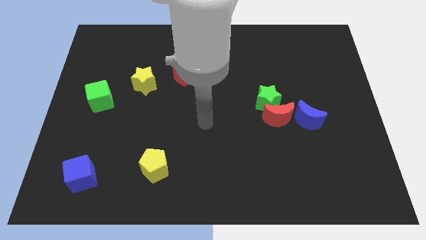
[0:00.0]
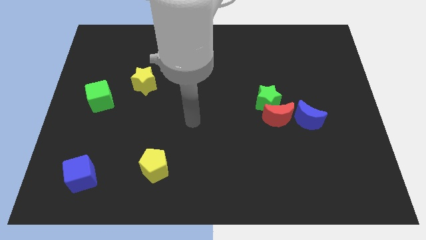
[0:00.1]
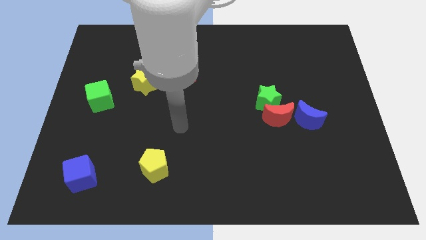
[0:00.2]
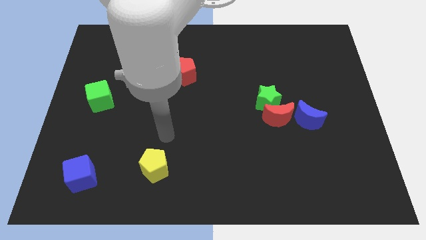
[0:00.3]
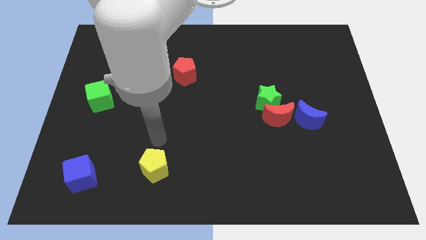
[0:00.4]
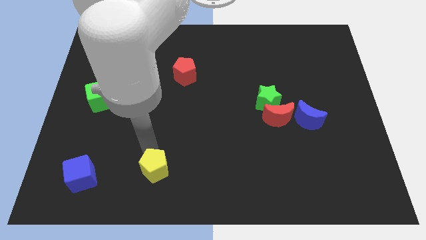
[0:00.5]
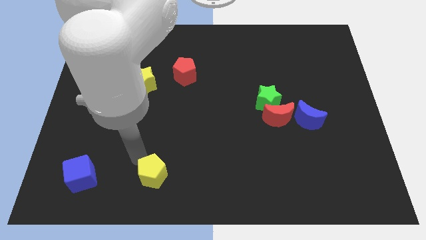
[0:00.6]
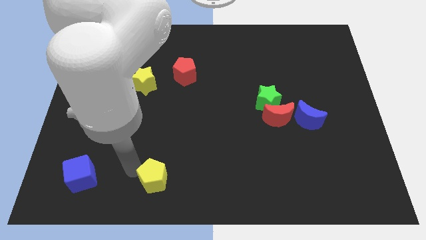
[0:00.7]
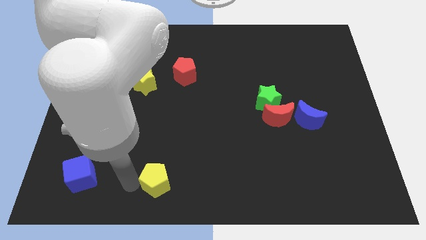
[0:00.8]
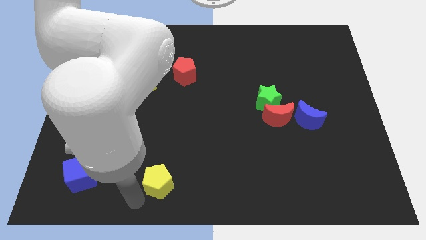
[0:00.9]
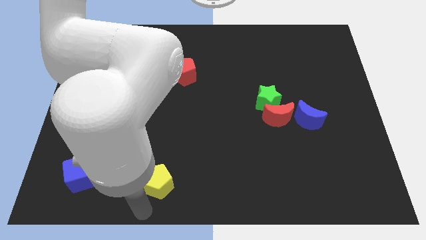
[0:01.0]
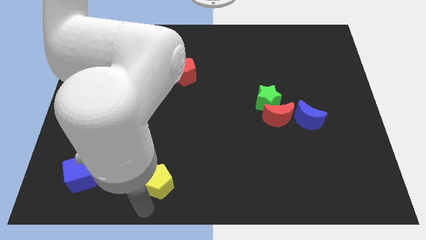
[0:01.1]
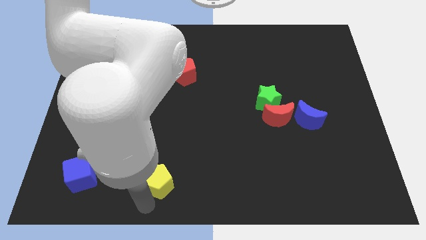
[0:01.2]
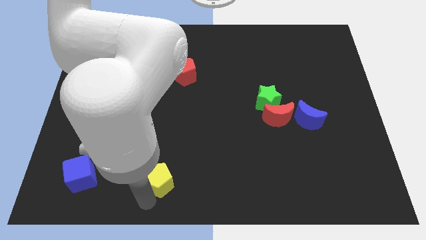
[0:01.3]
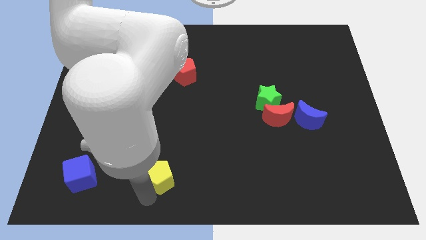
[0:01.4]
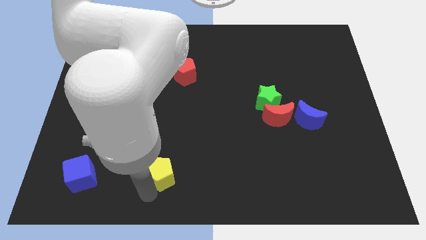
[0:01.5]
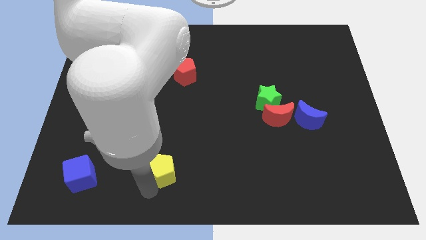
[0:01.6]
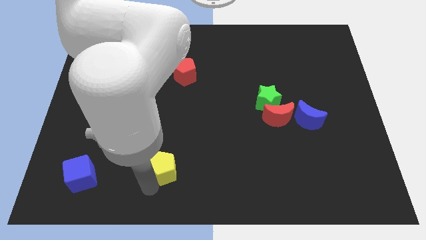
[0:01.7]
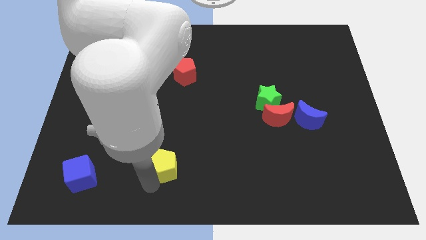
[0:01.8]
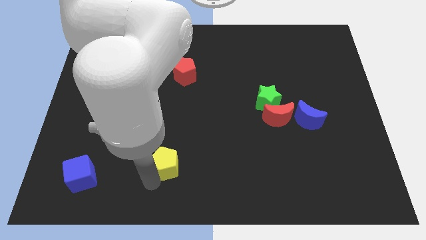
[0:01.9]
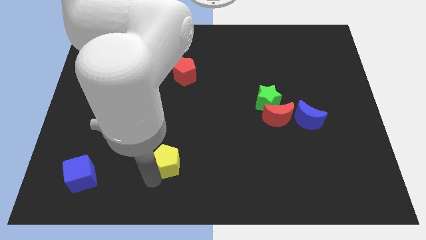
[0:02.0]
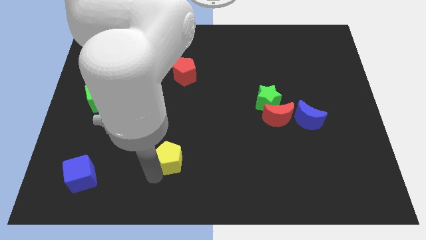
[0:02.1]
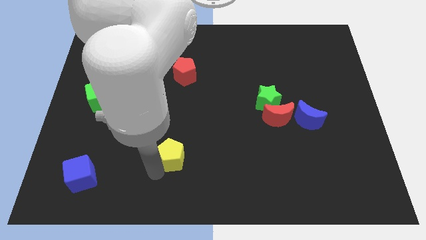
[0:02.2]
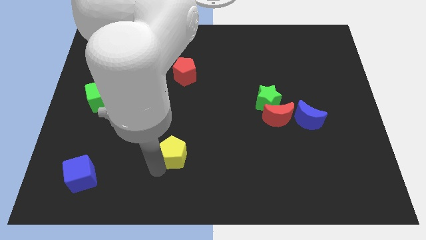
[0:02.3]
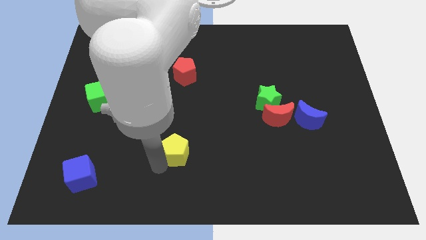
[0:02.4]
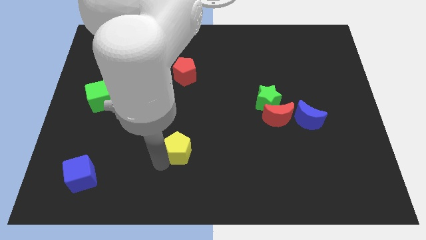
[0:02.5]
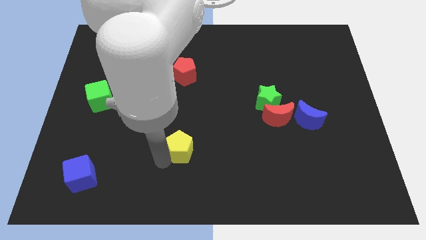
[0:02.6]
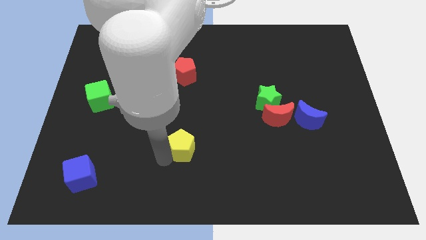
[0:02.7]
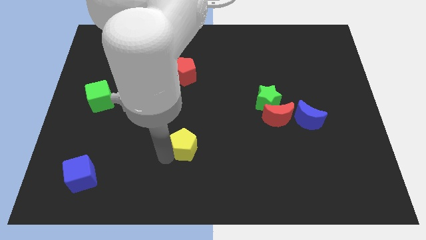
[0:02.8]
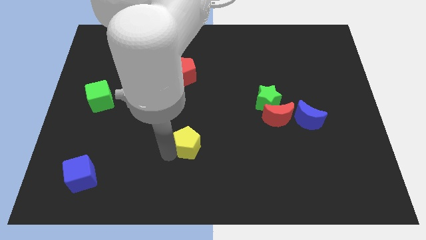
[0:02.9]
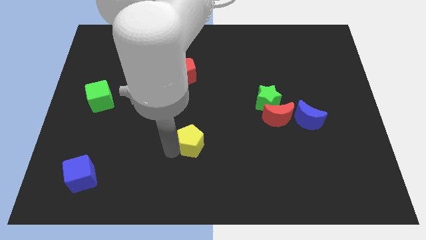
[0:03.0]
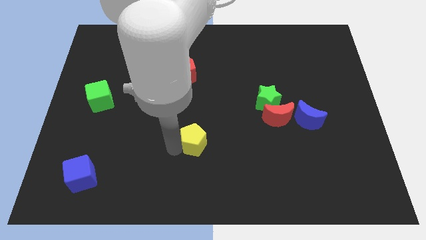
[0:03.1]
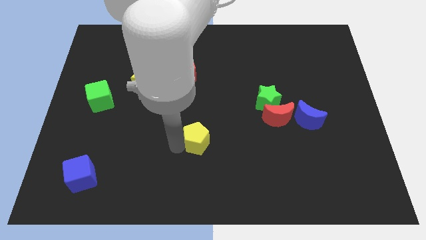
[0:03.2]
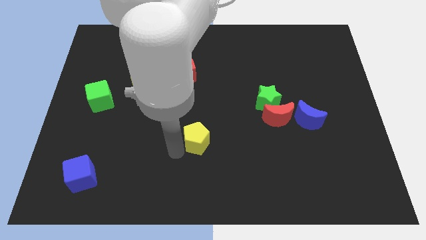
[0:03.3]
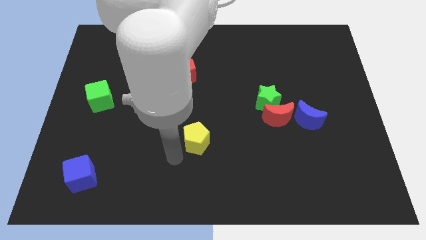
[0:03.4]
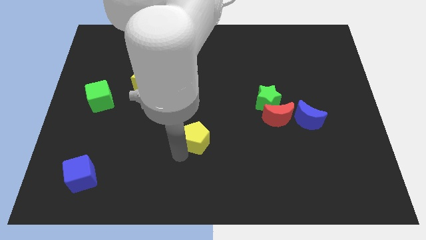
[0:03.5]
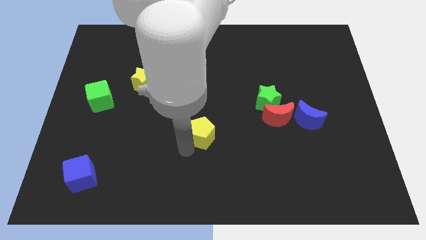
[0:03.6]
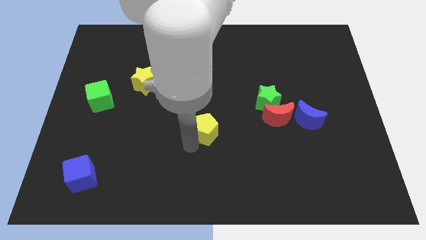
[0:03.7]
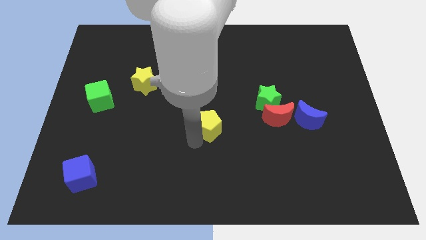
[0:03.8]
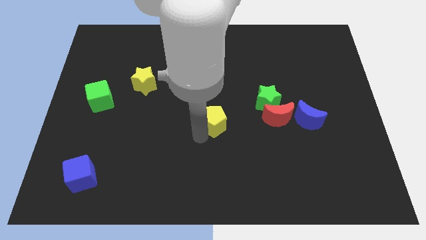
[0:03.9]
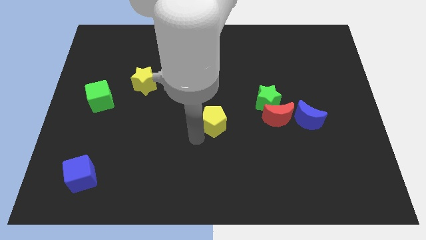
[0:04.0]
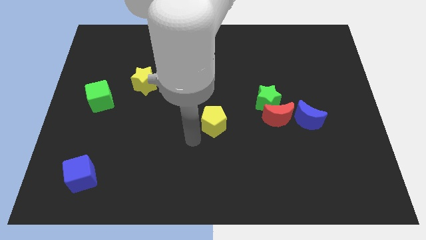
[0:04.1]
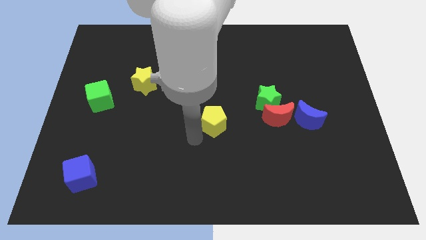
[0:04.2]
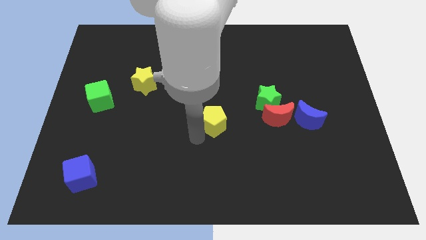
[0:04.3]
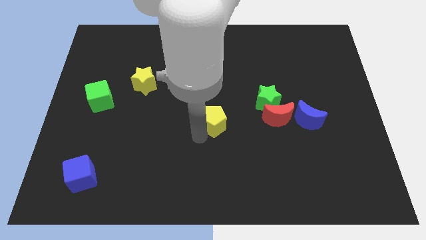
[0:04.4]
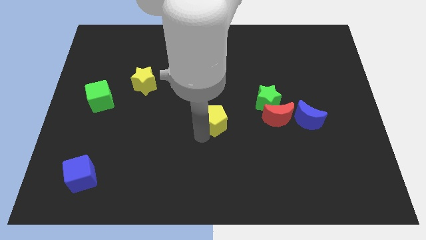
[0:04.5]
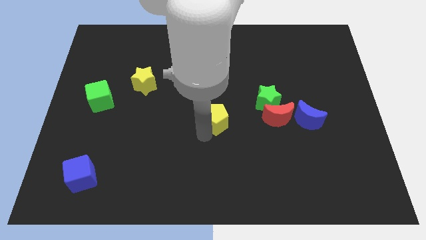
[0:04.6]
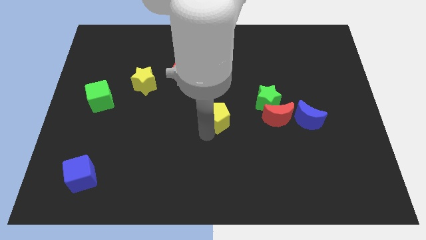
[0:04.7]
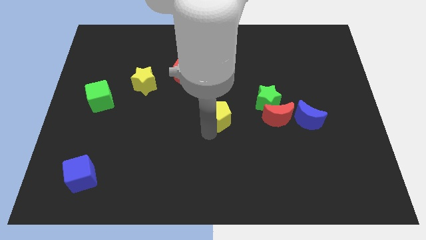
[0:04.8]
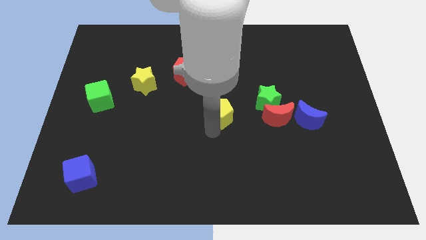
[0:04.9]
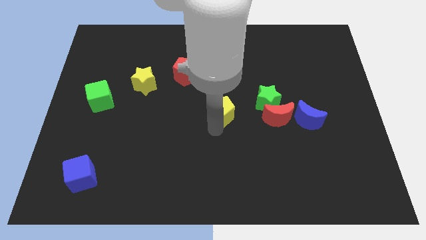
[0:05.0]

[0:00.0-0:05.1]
slide the yellow pentagon upwards and then right

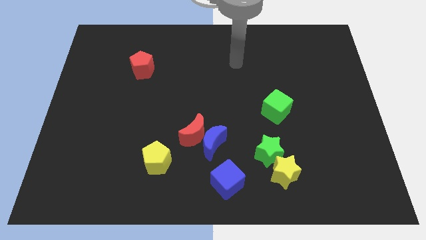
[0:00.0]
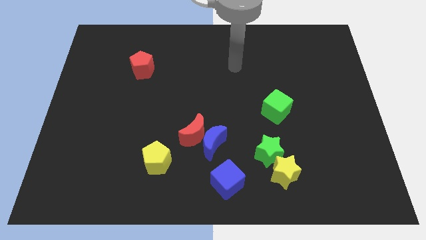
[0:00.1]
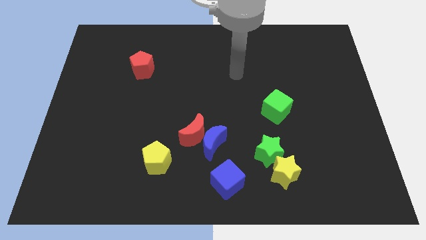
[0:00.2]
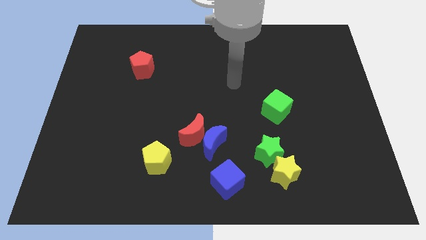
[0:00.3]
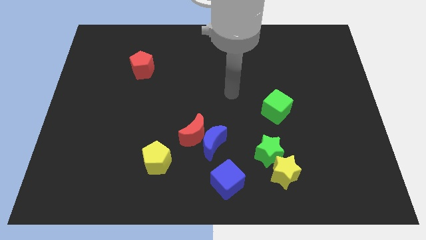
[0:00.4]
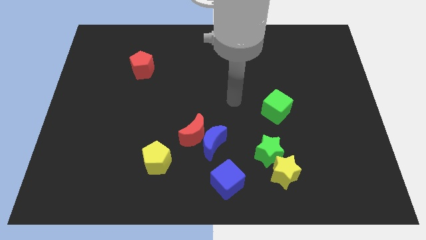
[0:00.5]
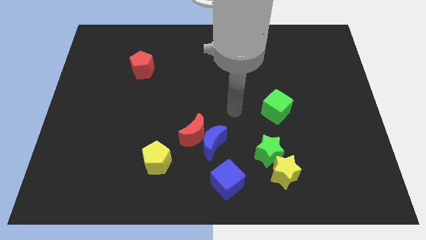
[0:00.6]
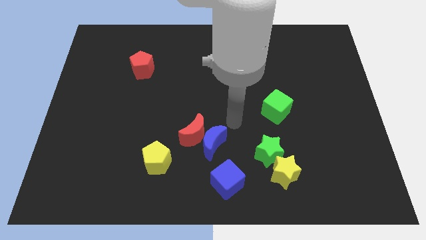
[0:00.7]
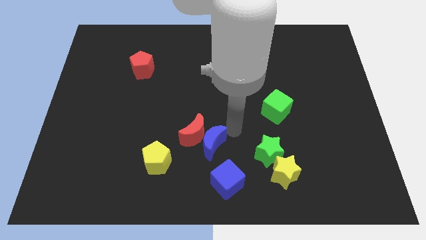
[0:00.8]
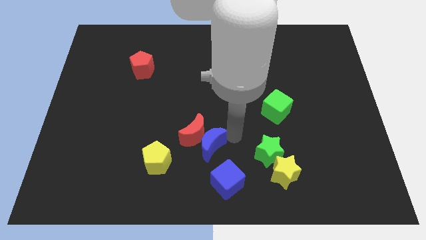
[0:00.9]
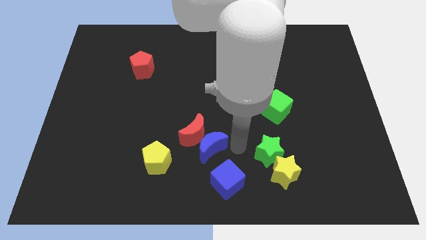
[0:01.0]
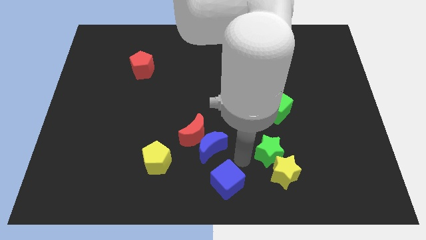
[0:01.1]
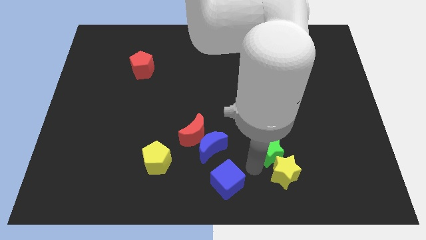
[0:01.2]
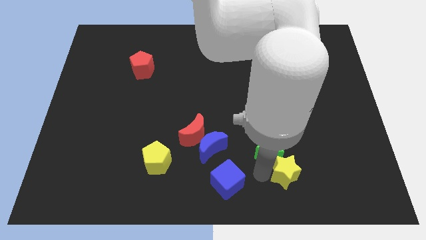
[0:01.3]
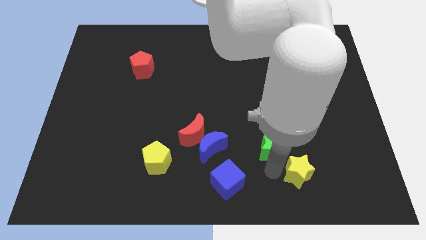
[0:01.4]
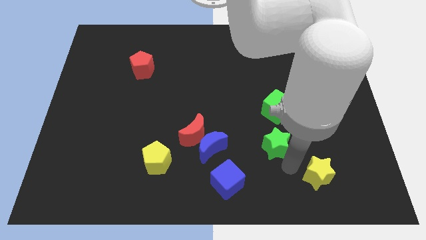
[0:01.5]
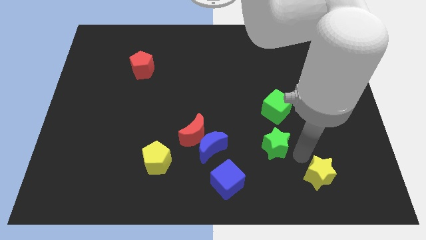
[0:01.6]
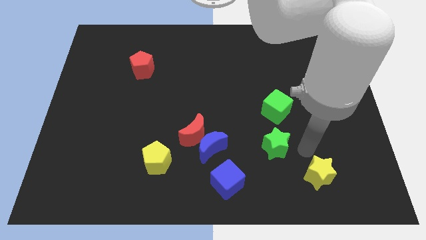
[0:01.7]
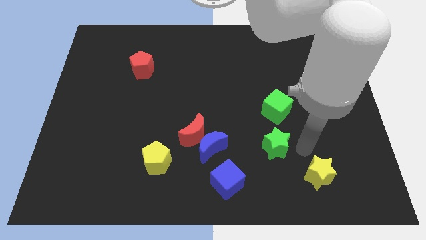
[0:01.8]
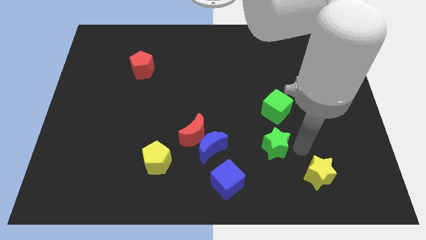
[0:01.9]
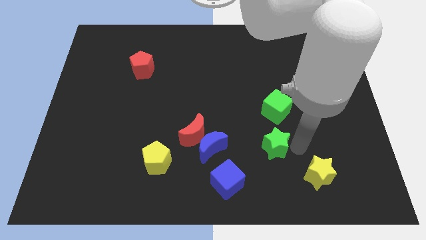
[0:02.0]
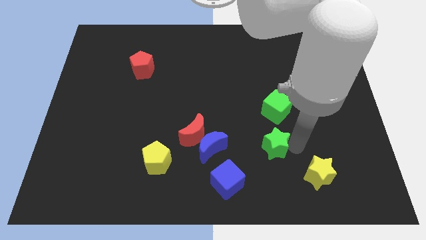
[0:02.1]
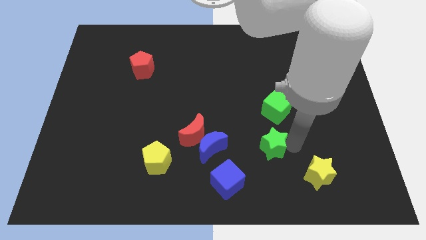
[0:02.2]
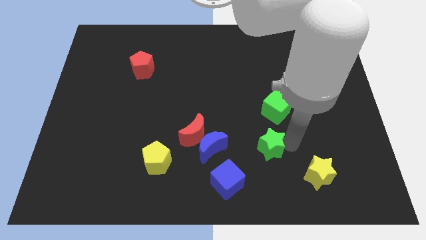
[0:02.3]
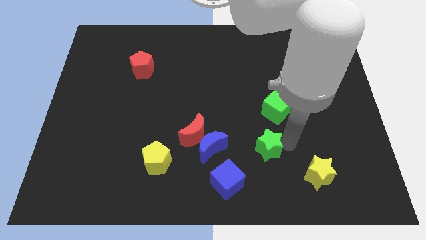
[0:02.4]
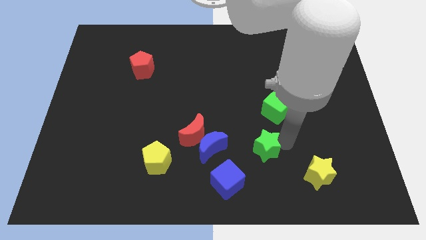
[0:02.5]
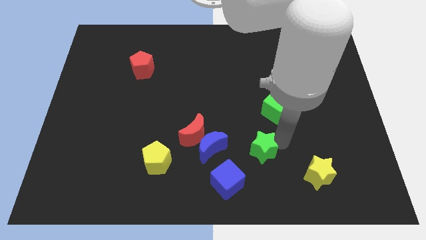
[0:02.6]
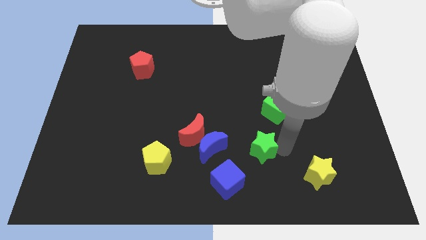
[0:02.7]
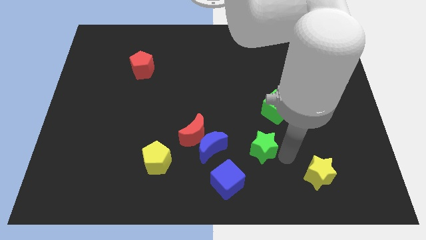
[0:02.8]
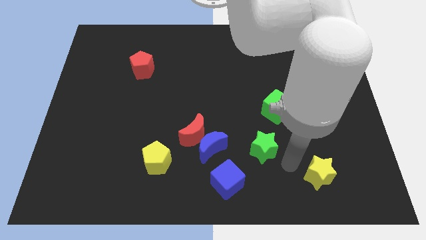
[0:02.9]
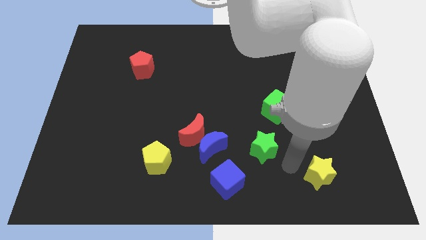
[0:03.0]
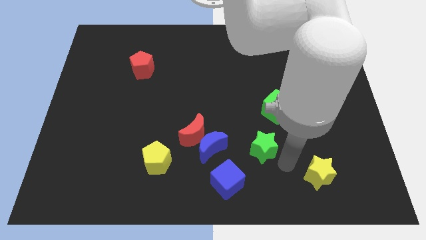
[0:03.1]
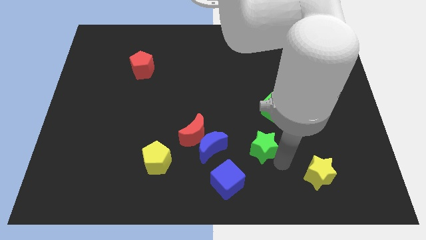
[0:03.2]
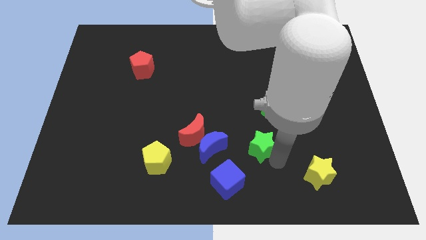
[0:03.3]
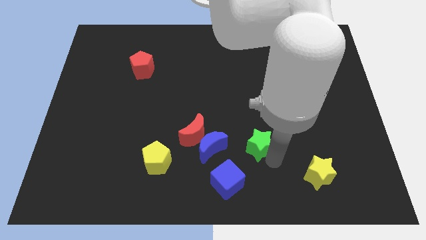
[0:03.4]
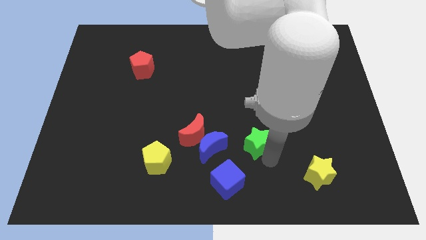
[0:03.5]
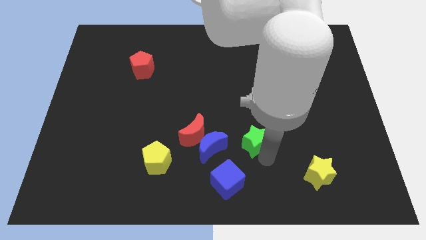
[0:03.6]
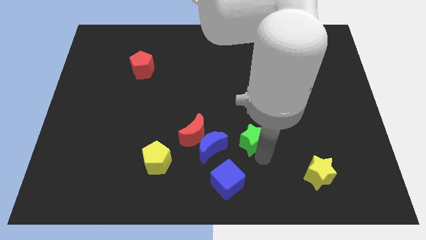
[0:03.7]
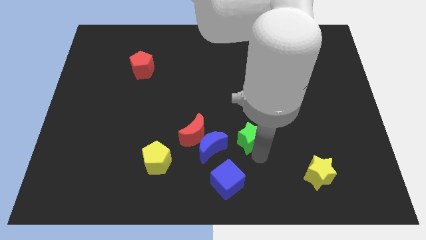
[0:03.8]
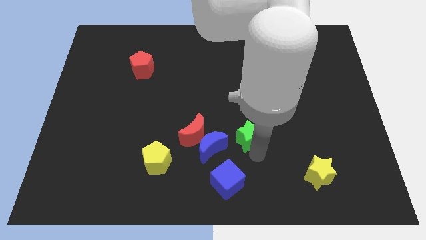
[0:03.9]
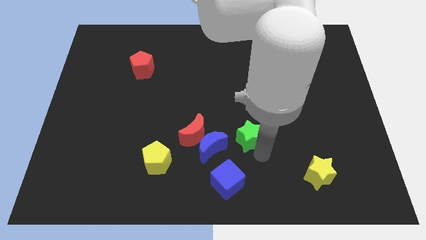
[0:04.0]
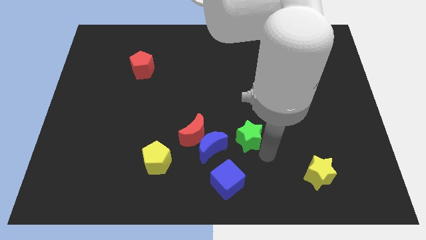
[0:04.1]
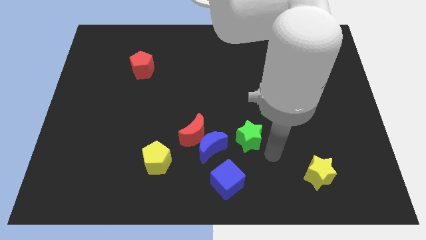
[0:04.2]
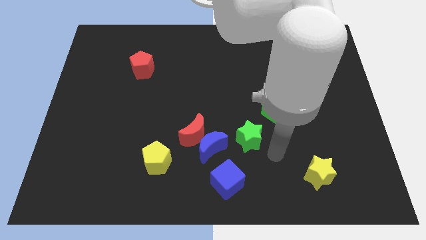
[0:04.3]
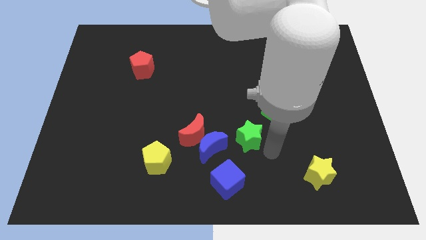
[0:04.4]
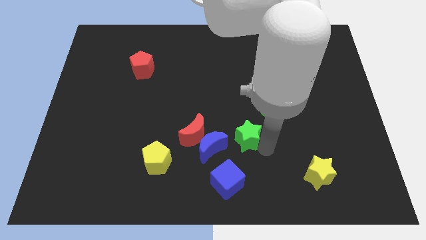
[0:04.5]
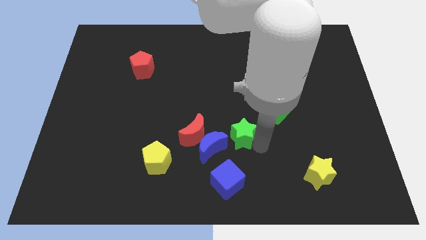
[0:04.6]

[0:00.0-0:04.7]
move the green star somewhat up and then left
